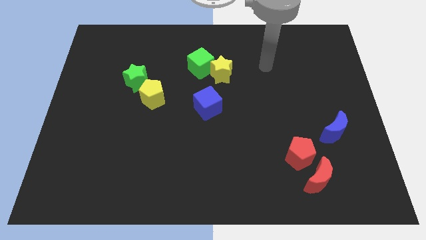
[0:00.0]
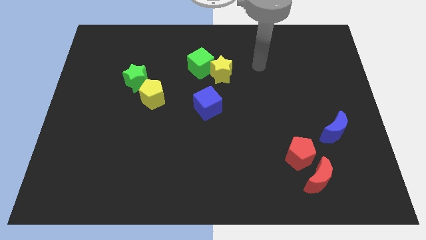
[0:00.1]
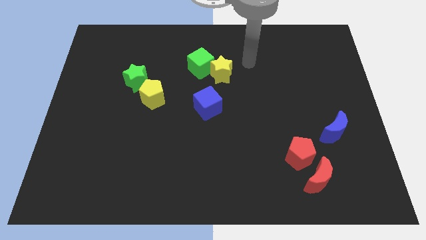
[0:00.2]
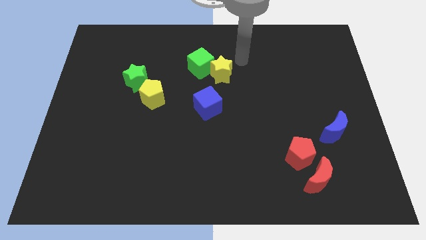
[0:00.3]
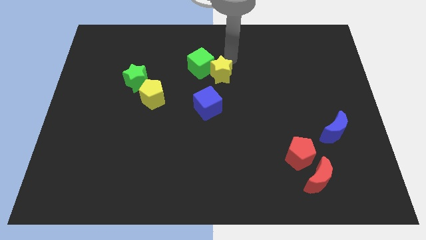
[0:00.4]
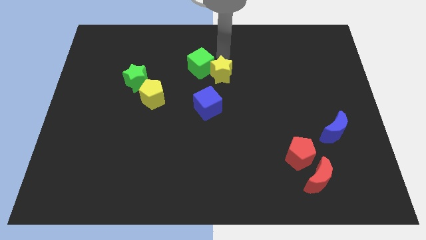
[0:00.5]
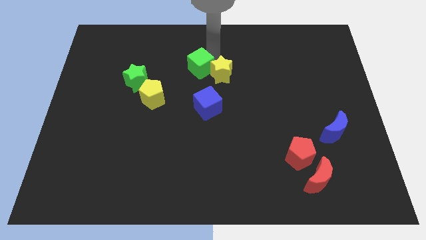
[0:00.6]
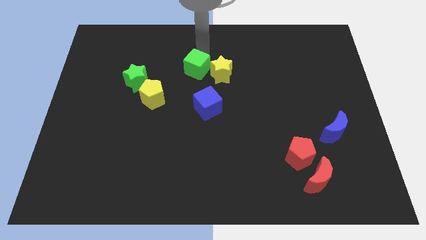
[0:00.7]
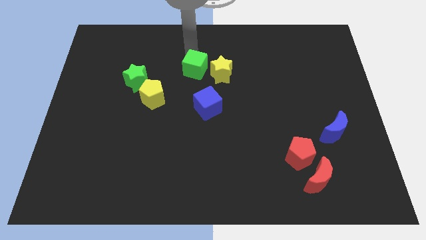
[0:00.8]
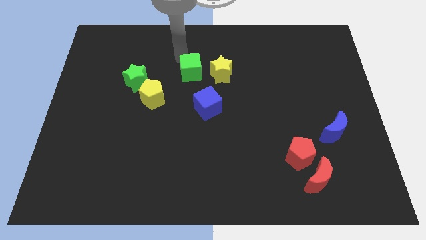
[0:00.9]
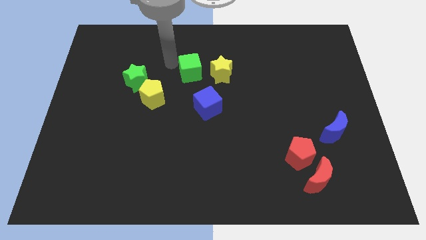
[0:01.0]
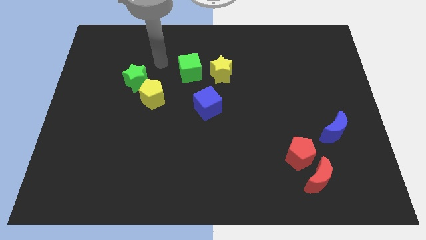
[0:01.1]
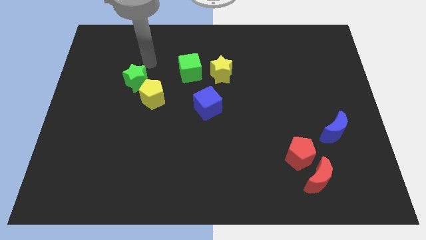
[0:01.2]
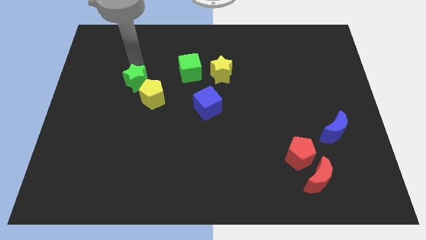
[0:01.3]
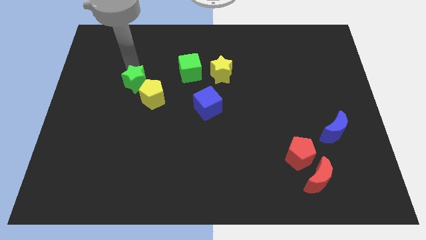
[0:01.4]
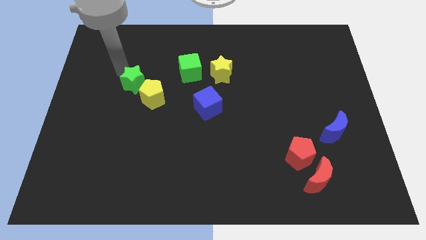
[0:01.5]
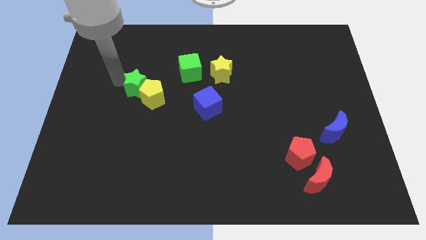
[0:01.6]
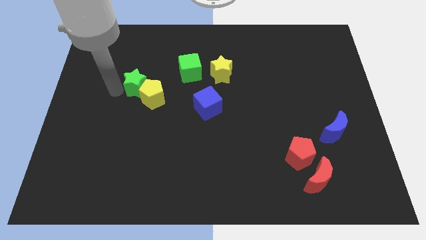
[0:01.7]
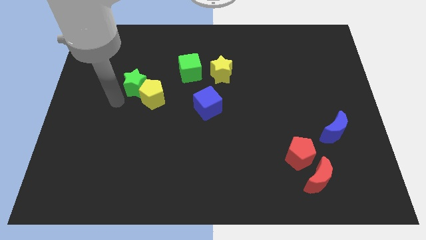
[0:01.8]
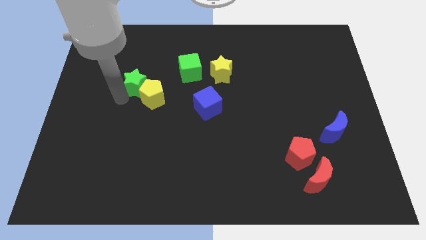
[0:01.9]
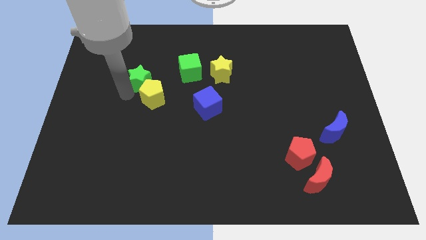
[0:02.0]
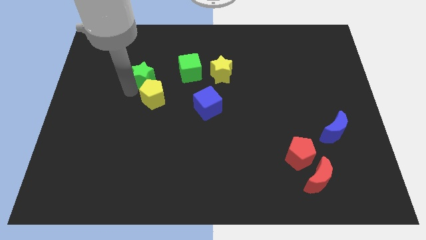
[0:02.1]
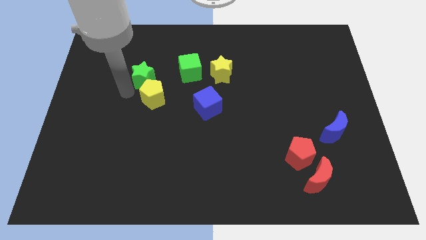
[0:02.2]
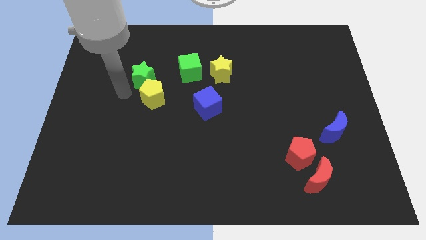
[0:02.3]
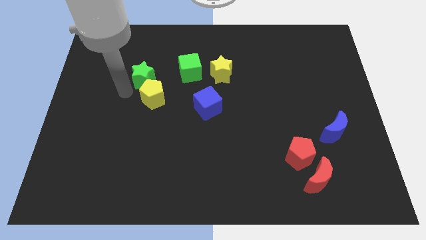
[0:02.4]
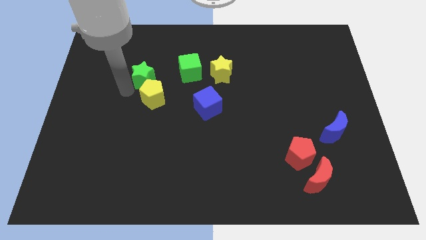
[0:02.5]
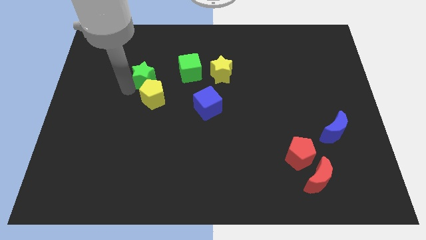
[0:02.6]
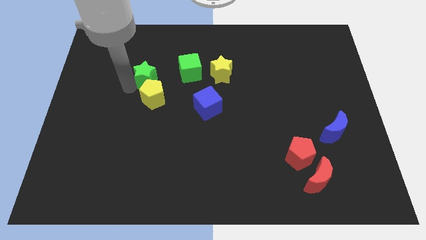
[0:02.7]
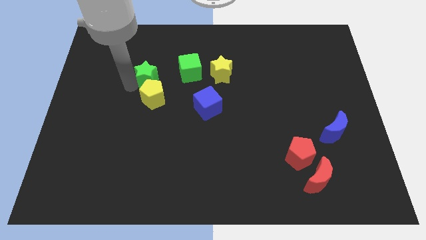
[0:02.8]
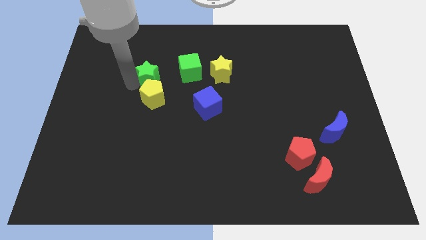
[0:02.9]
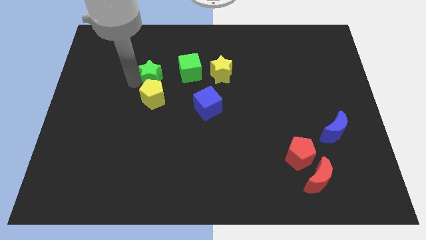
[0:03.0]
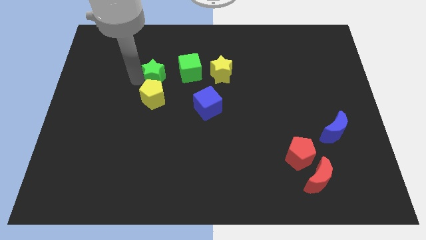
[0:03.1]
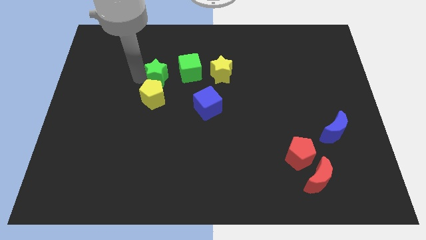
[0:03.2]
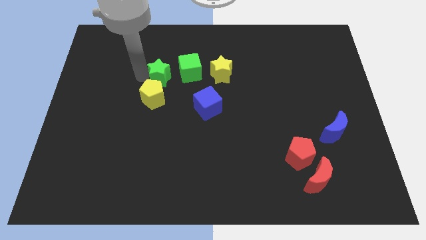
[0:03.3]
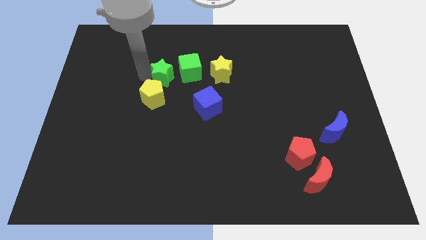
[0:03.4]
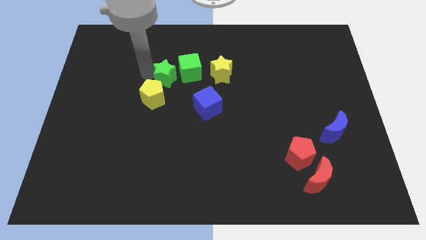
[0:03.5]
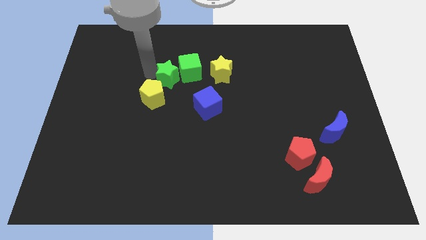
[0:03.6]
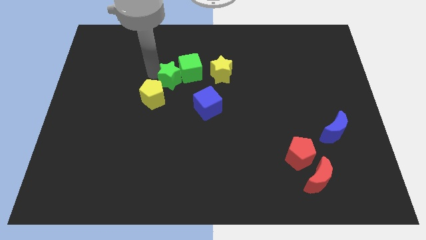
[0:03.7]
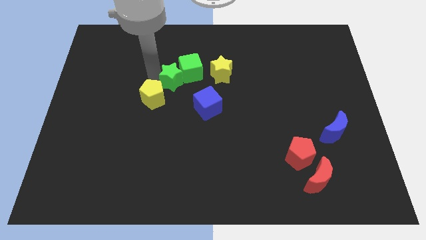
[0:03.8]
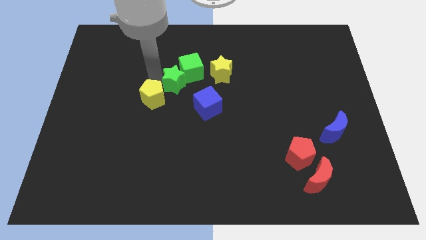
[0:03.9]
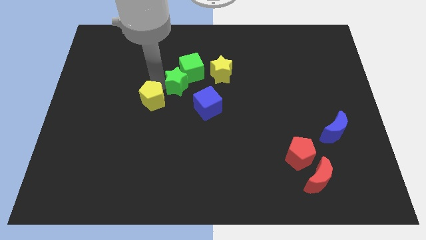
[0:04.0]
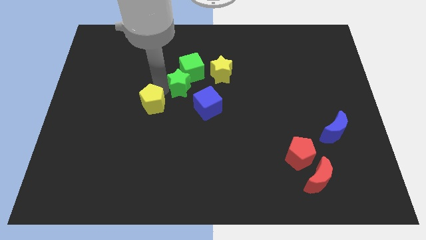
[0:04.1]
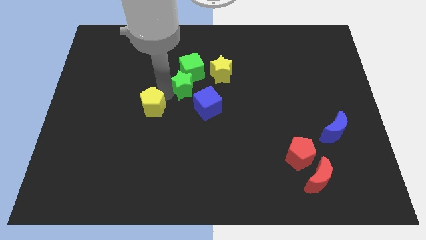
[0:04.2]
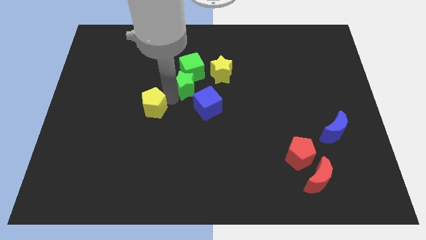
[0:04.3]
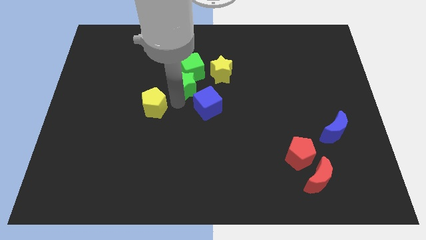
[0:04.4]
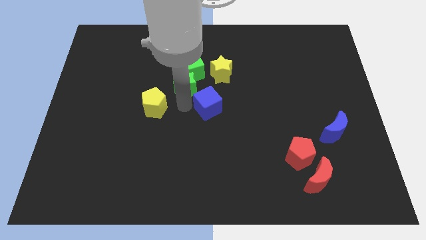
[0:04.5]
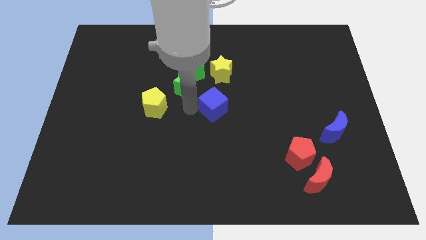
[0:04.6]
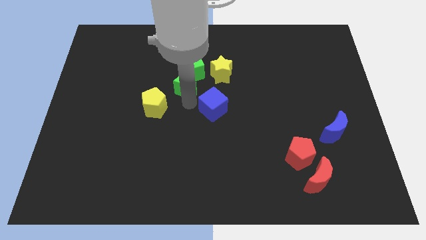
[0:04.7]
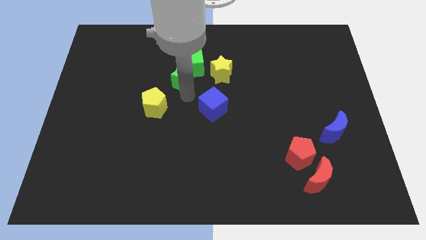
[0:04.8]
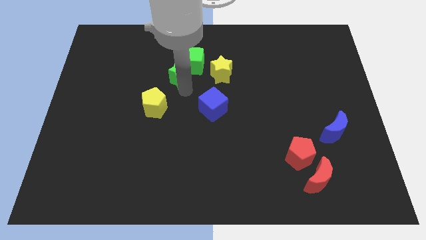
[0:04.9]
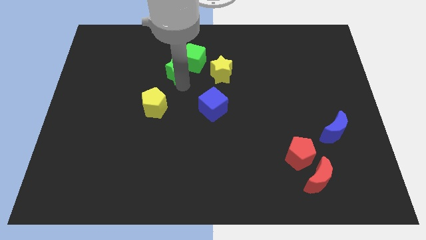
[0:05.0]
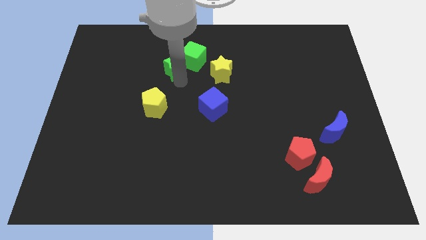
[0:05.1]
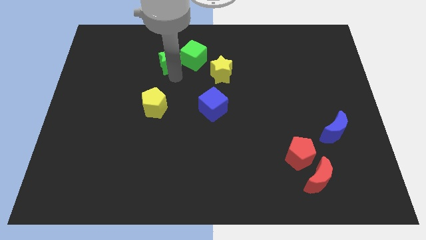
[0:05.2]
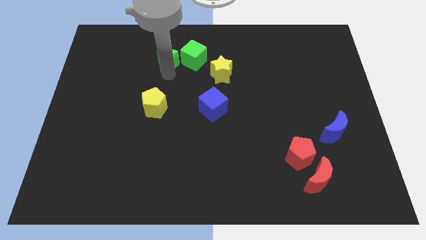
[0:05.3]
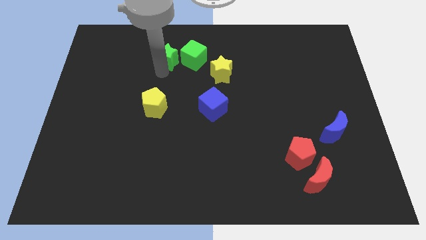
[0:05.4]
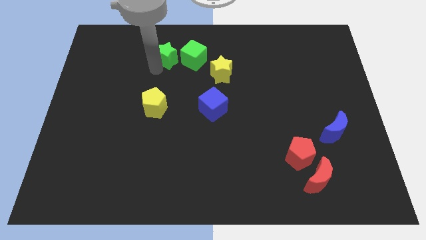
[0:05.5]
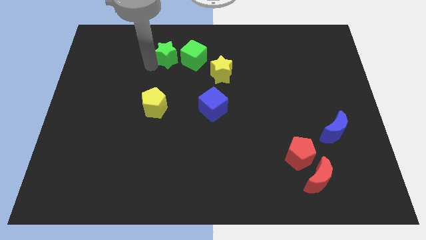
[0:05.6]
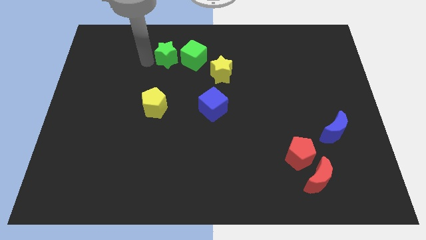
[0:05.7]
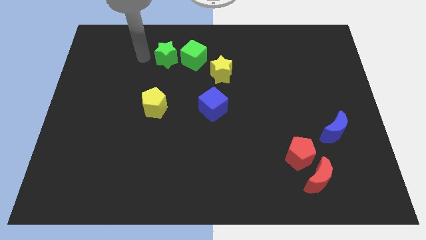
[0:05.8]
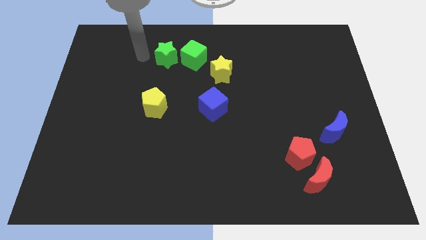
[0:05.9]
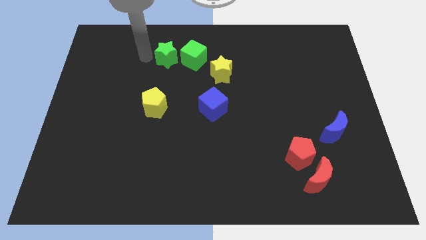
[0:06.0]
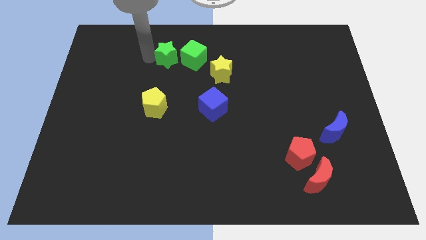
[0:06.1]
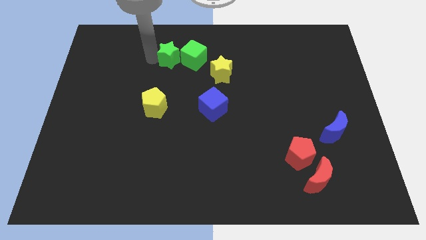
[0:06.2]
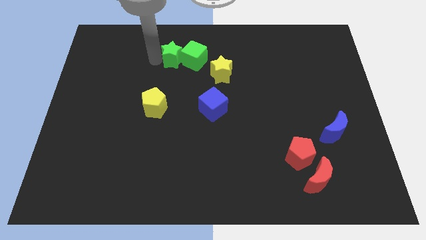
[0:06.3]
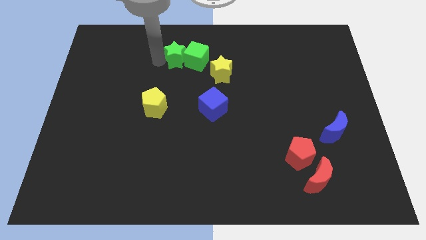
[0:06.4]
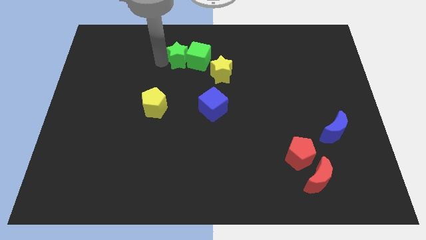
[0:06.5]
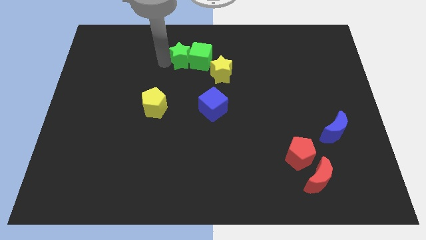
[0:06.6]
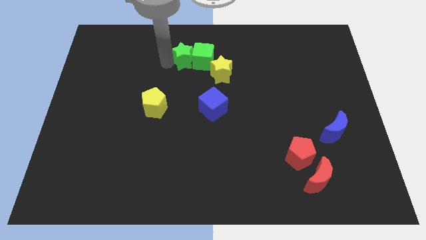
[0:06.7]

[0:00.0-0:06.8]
put the green star to the top left side of the yellow star

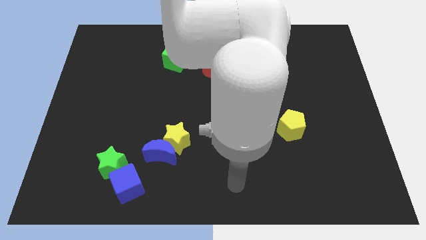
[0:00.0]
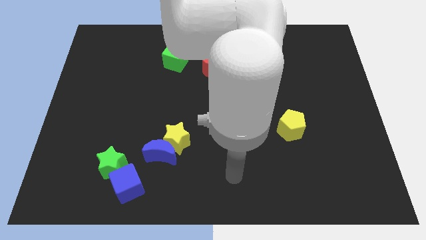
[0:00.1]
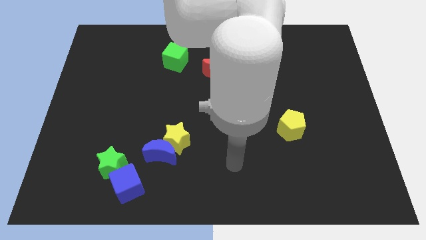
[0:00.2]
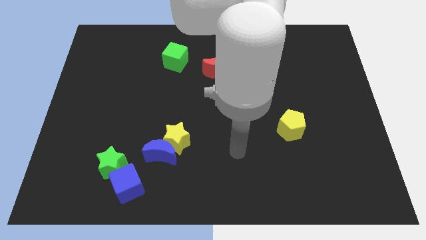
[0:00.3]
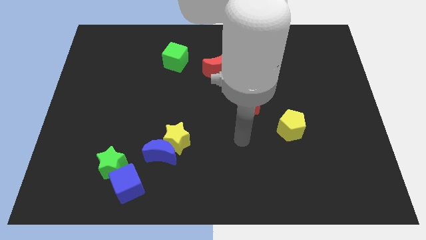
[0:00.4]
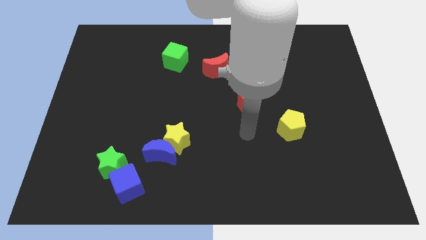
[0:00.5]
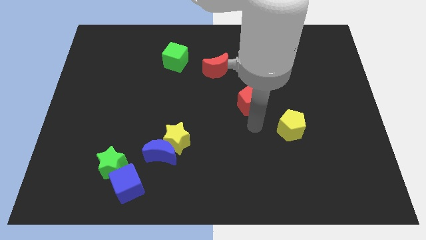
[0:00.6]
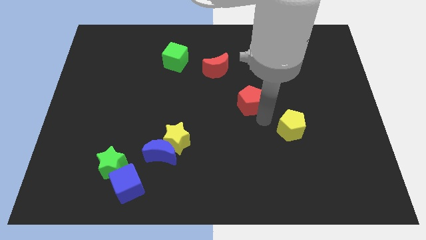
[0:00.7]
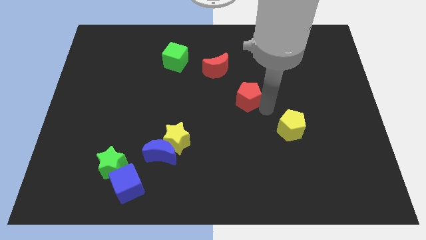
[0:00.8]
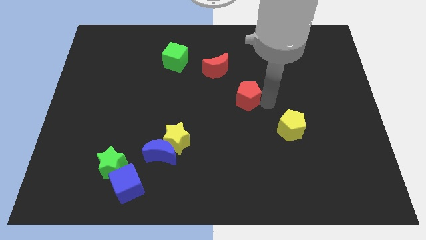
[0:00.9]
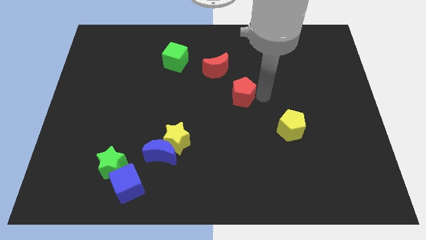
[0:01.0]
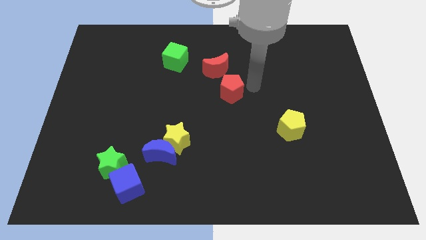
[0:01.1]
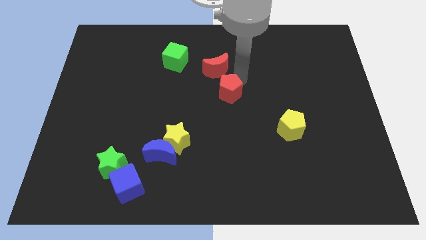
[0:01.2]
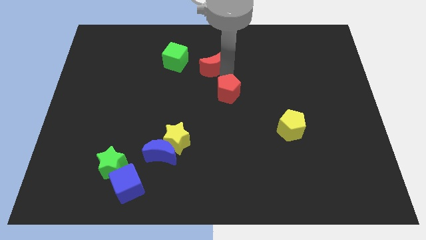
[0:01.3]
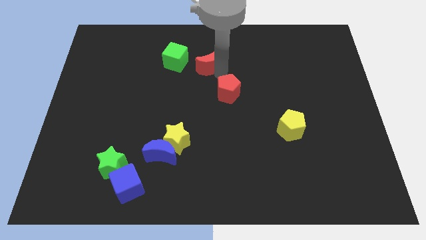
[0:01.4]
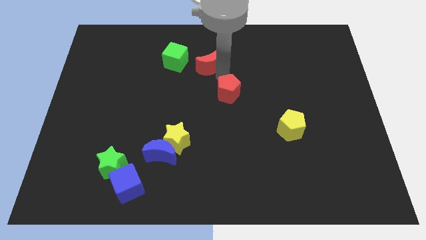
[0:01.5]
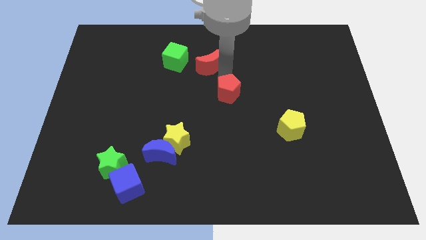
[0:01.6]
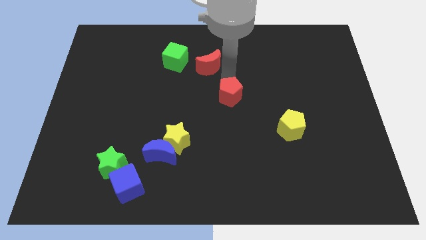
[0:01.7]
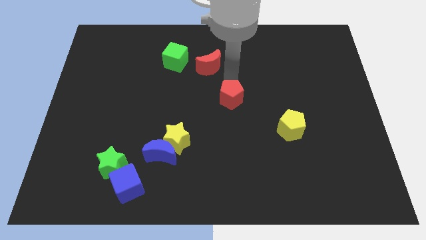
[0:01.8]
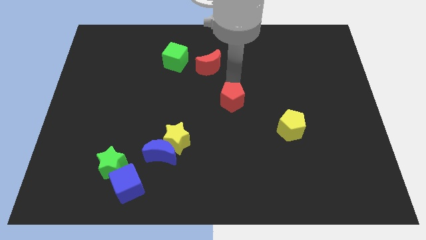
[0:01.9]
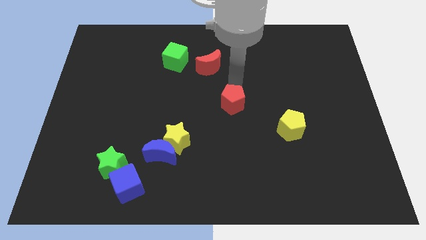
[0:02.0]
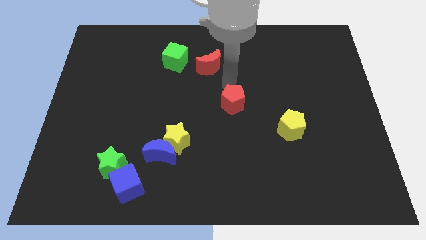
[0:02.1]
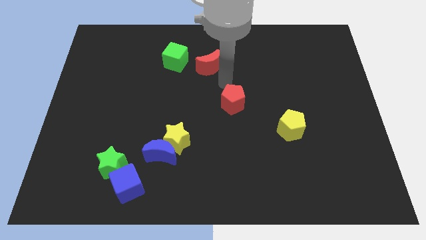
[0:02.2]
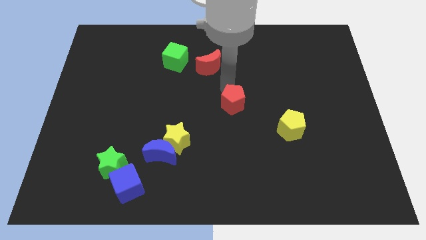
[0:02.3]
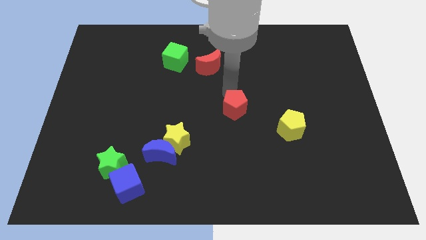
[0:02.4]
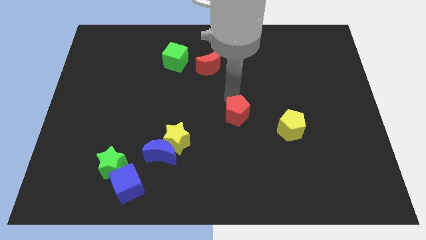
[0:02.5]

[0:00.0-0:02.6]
put the red pentagon to the left of the yellow pentagon
